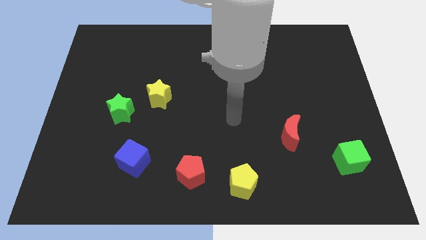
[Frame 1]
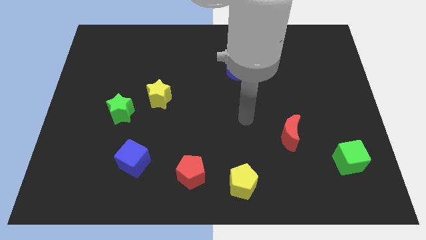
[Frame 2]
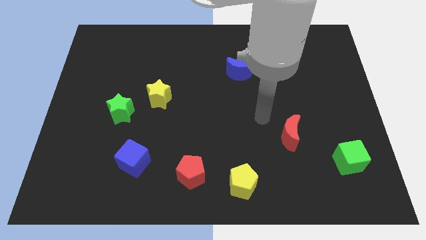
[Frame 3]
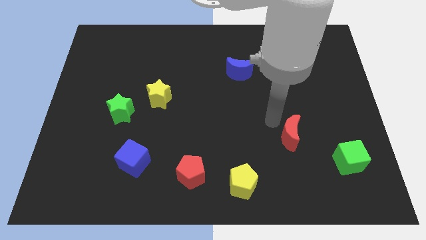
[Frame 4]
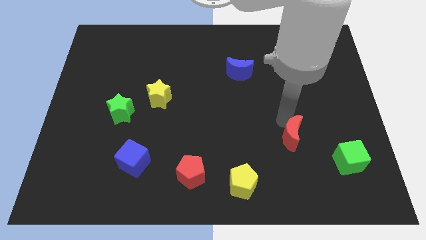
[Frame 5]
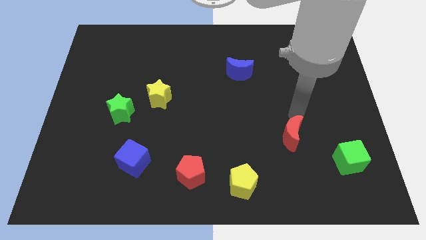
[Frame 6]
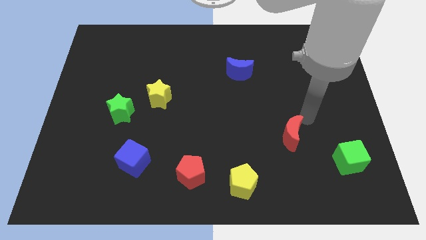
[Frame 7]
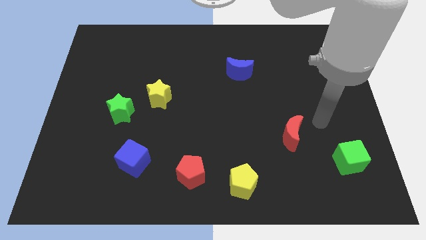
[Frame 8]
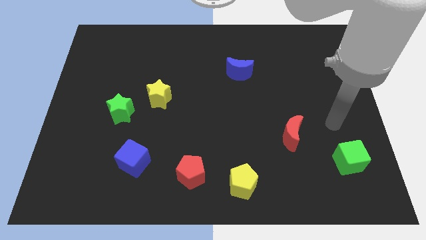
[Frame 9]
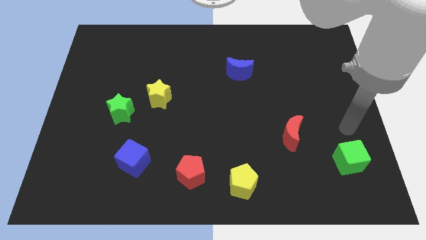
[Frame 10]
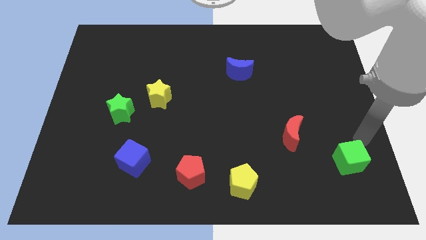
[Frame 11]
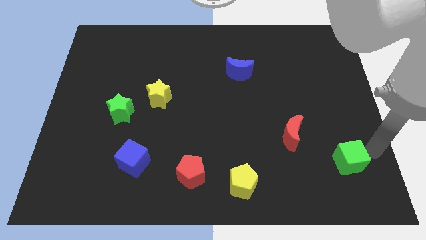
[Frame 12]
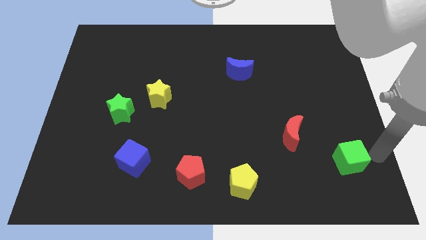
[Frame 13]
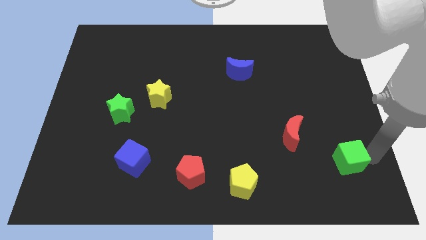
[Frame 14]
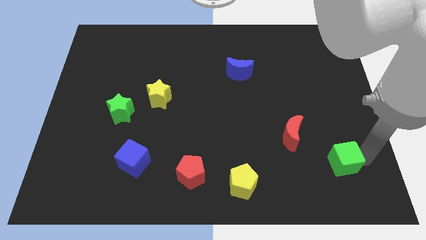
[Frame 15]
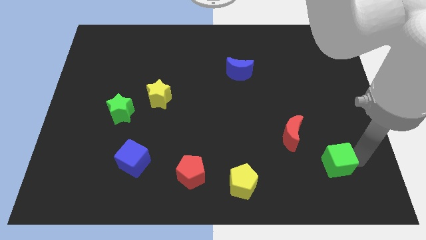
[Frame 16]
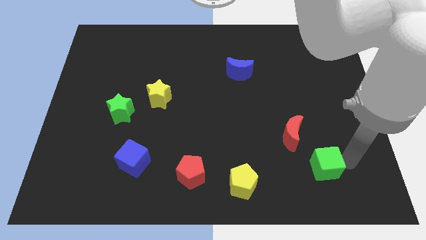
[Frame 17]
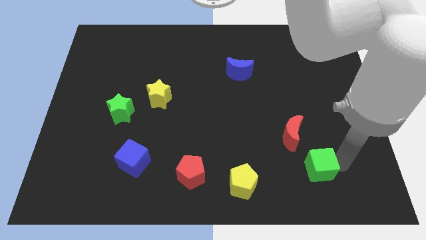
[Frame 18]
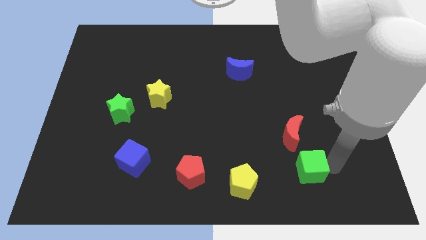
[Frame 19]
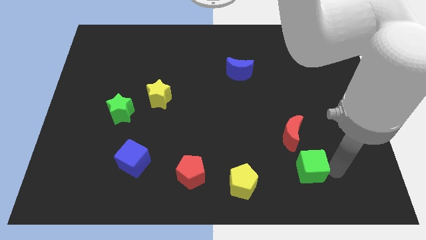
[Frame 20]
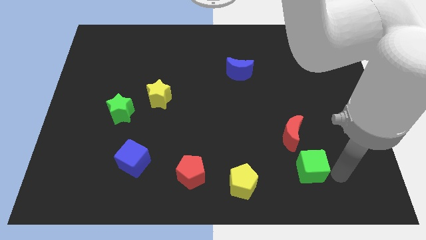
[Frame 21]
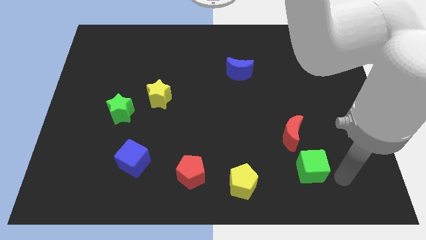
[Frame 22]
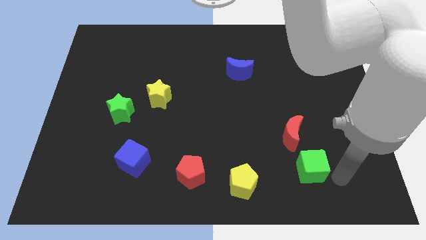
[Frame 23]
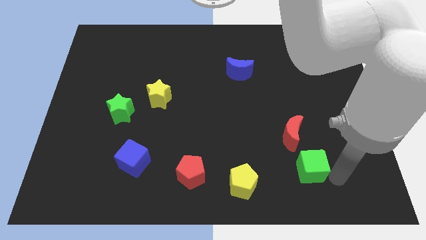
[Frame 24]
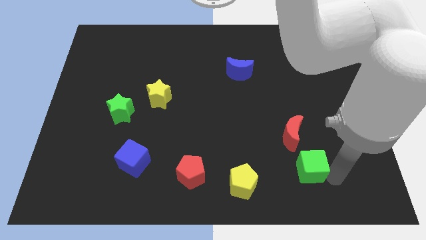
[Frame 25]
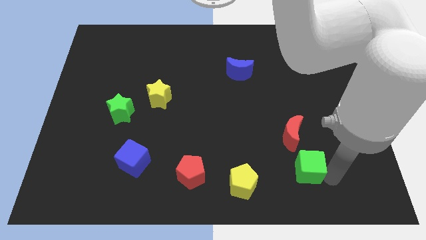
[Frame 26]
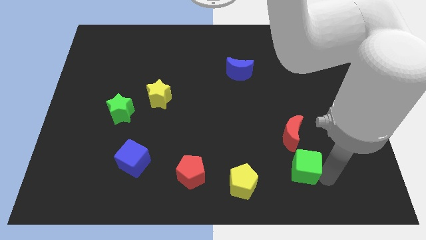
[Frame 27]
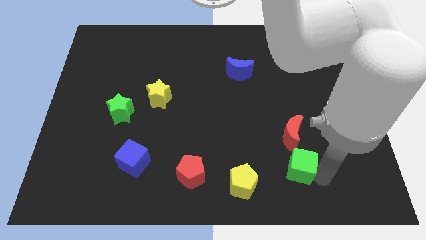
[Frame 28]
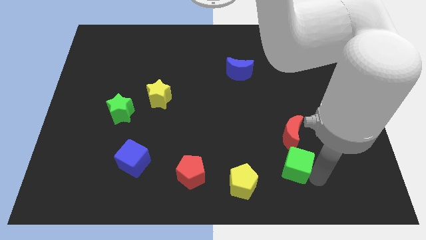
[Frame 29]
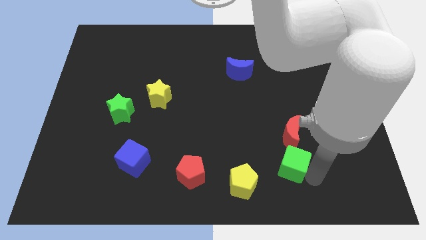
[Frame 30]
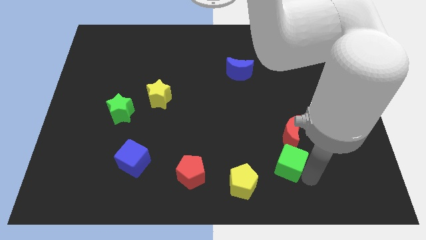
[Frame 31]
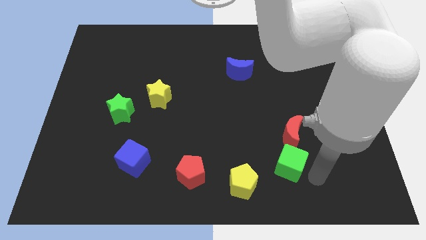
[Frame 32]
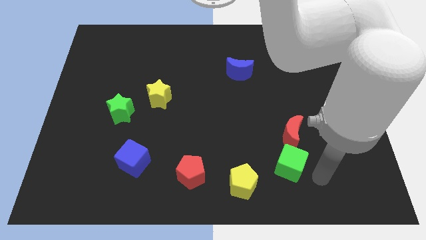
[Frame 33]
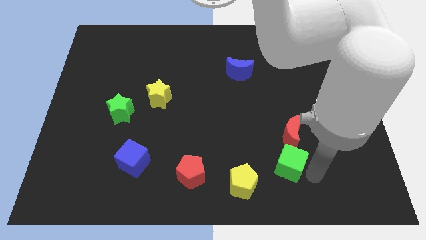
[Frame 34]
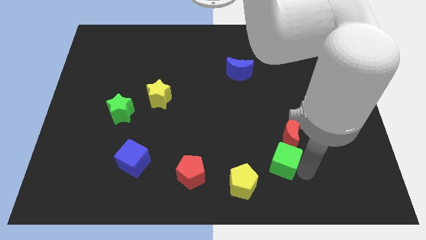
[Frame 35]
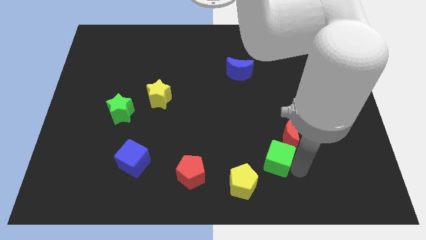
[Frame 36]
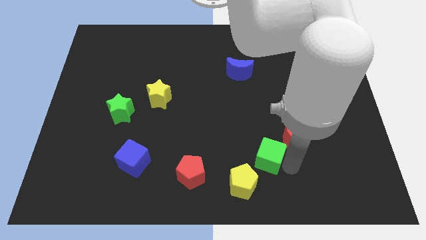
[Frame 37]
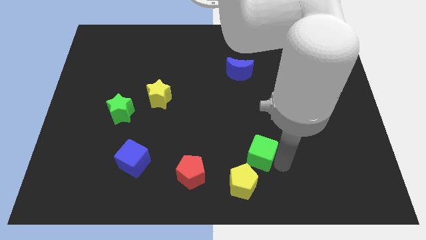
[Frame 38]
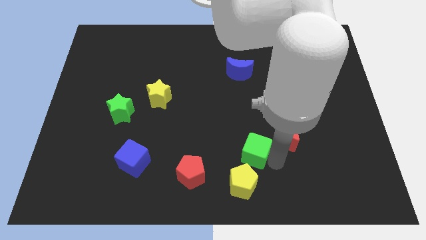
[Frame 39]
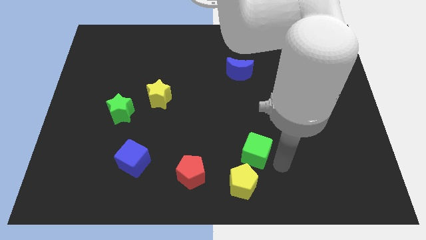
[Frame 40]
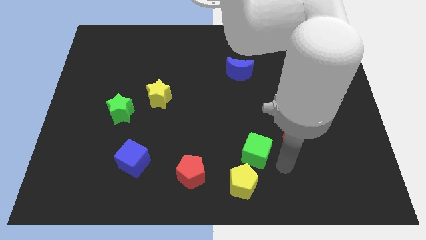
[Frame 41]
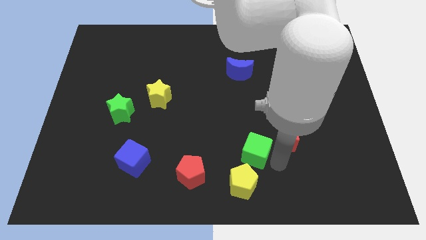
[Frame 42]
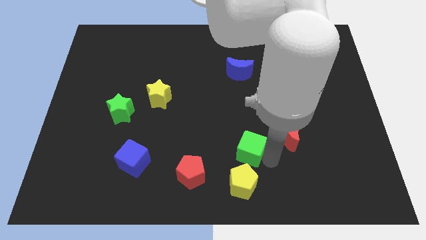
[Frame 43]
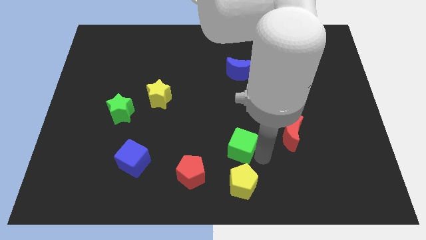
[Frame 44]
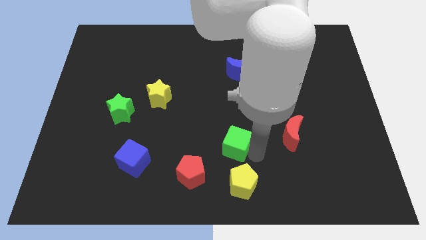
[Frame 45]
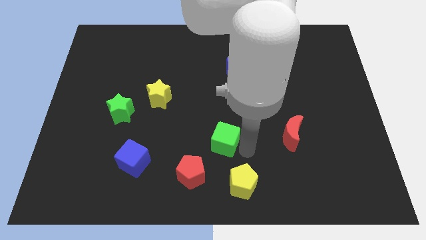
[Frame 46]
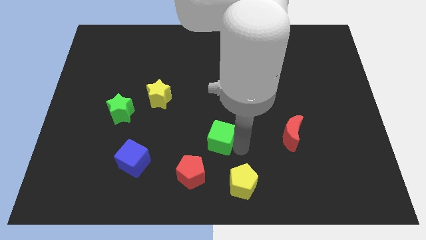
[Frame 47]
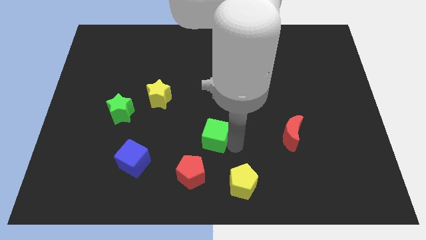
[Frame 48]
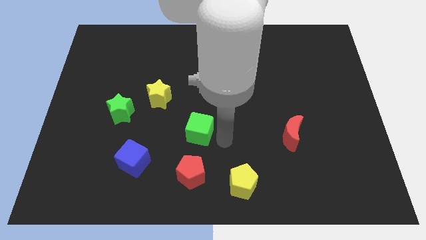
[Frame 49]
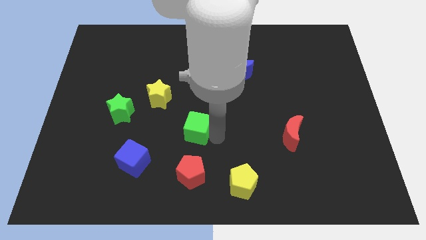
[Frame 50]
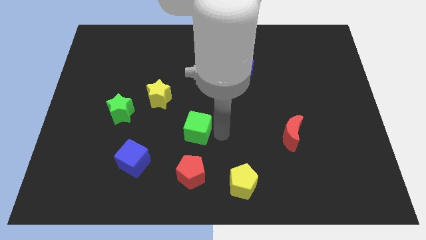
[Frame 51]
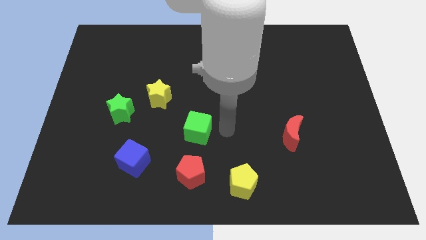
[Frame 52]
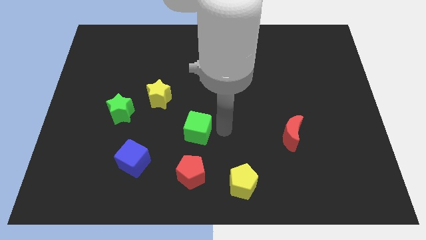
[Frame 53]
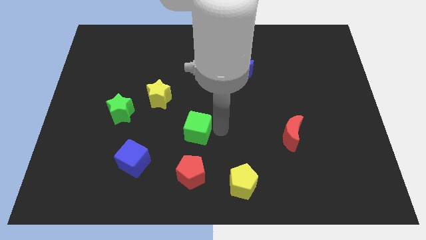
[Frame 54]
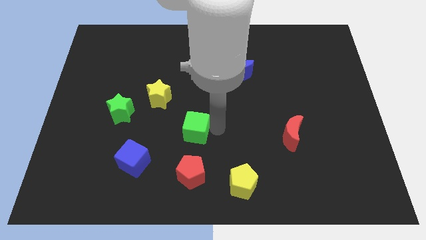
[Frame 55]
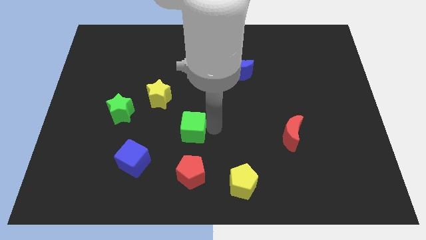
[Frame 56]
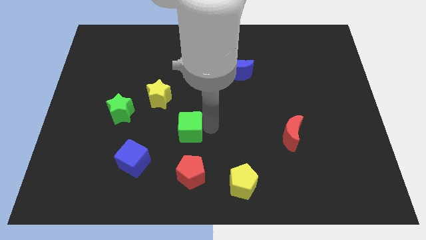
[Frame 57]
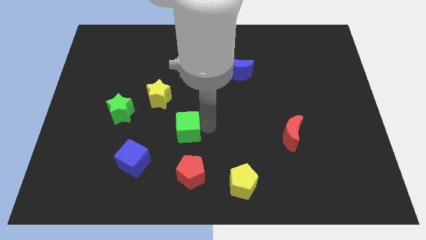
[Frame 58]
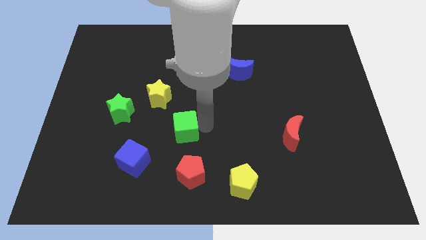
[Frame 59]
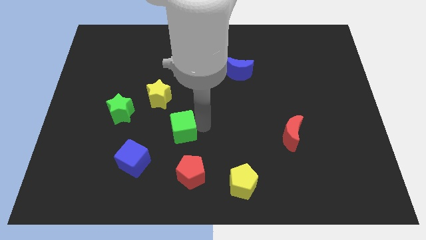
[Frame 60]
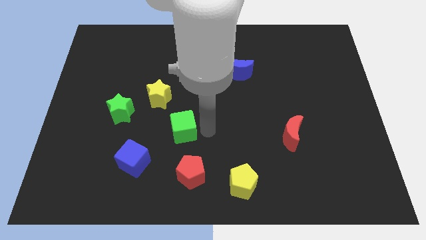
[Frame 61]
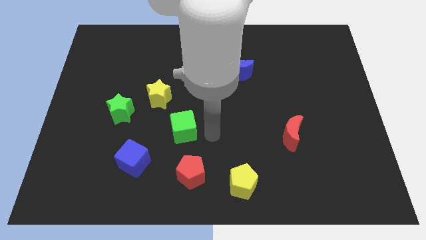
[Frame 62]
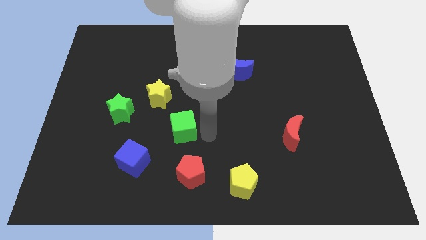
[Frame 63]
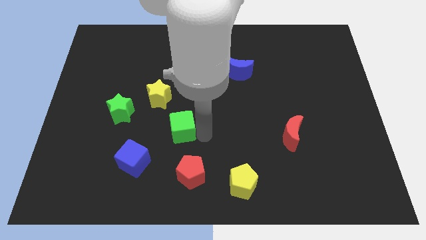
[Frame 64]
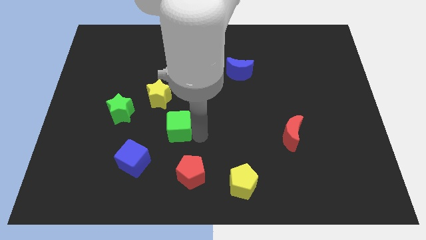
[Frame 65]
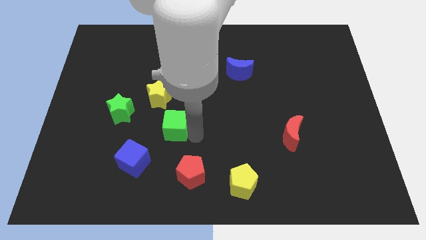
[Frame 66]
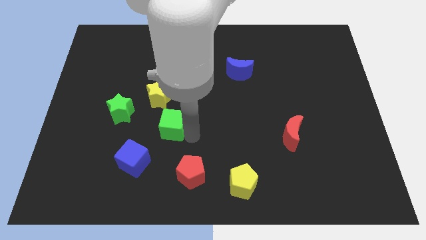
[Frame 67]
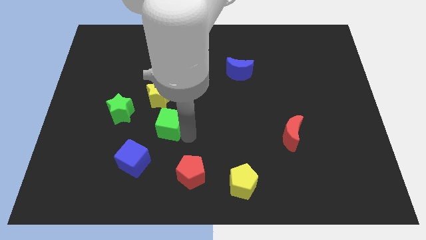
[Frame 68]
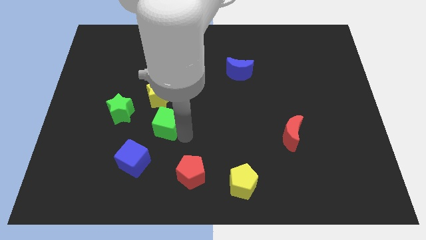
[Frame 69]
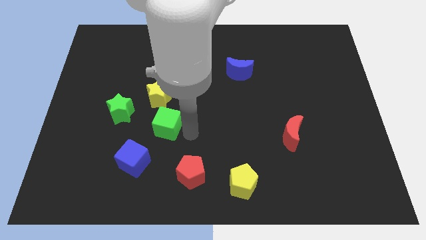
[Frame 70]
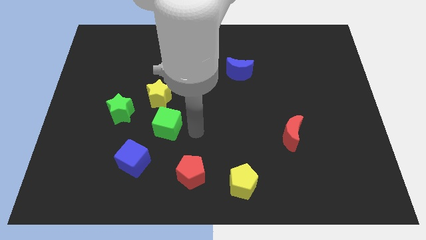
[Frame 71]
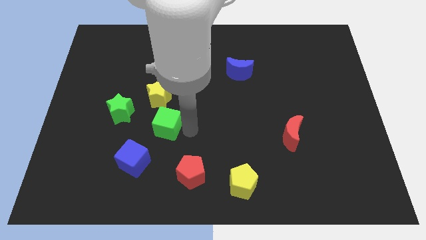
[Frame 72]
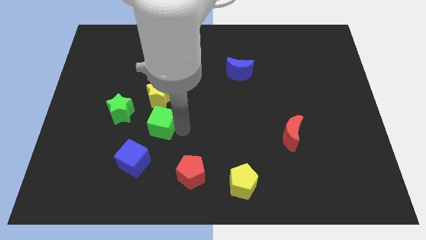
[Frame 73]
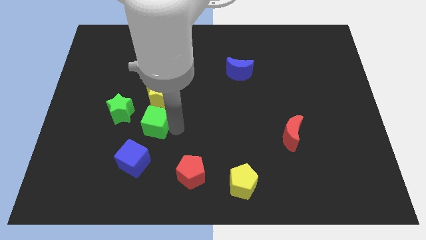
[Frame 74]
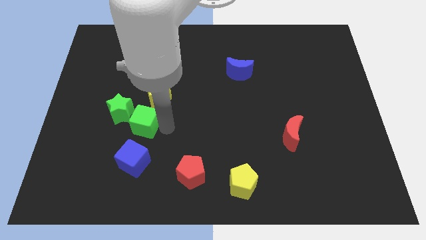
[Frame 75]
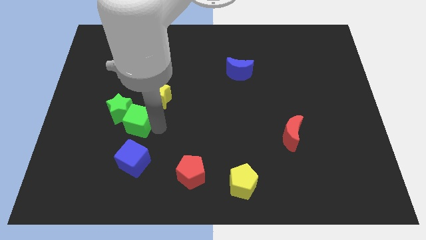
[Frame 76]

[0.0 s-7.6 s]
move the green cube next to the green star
